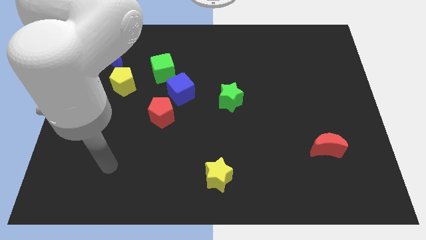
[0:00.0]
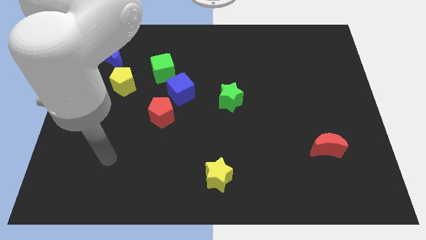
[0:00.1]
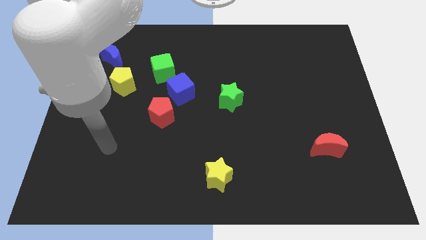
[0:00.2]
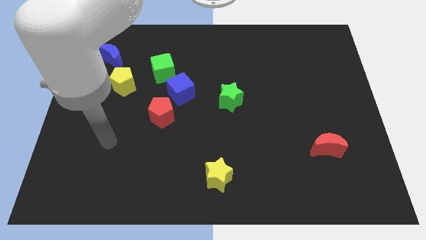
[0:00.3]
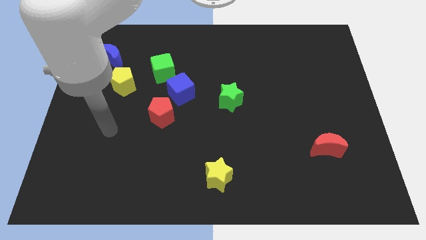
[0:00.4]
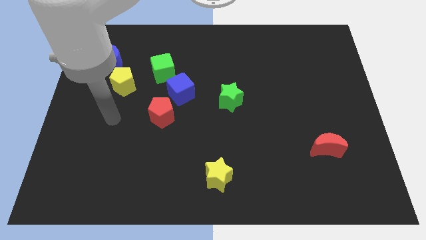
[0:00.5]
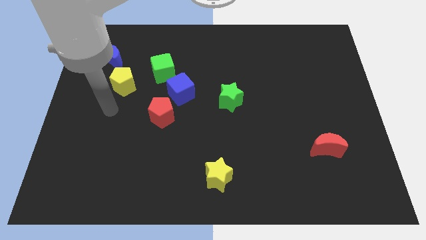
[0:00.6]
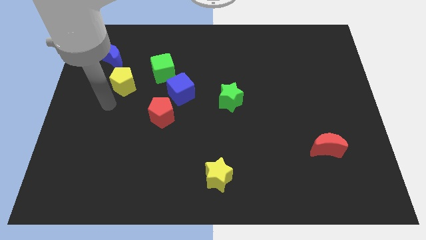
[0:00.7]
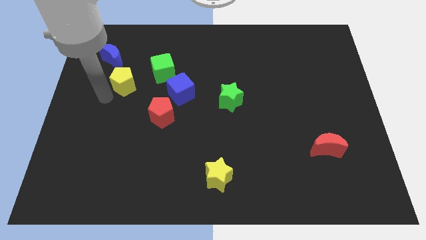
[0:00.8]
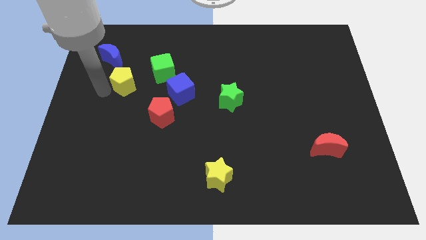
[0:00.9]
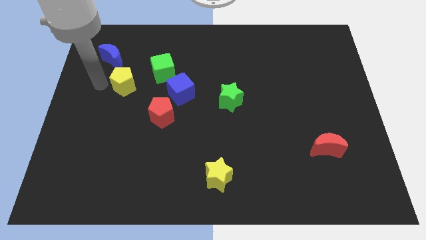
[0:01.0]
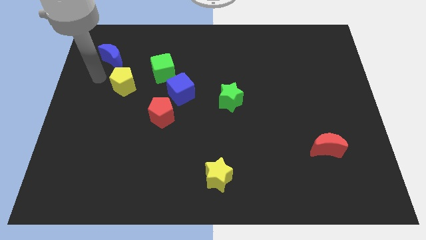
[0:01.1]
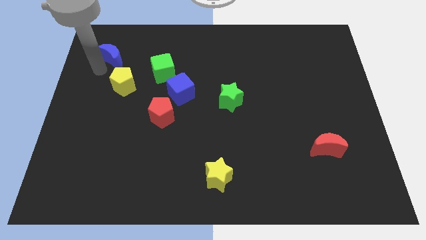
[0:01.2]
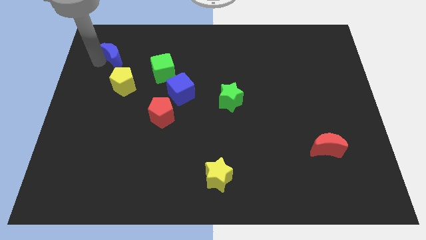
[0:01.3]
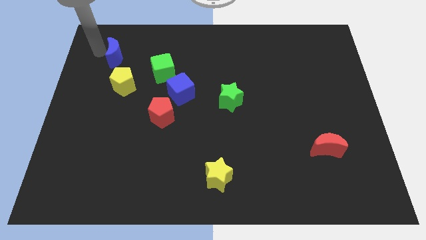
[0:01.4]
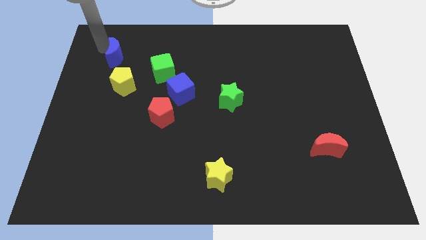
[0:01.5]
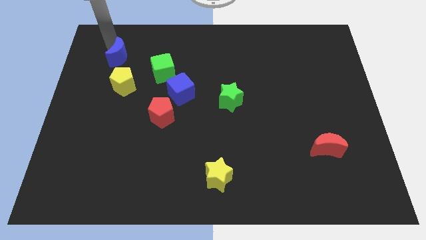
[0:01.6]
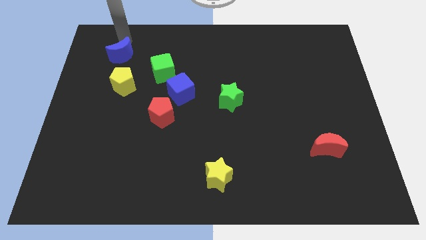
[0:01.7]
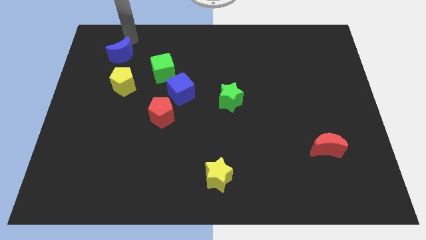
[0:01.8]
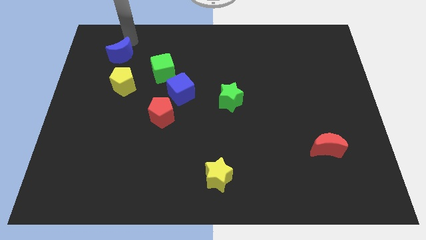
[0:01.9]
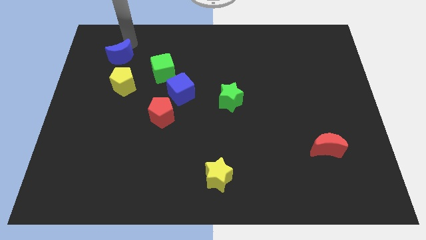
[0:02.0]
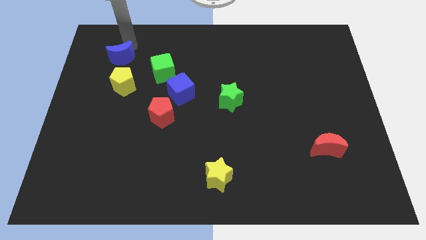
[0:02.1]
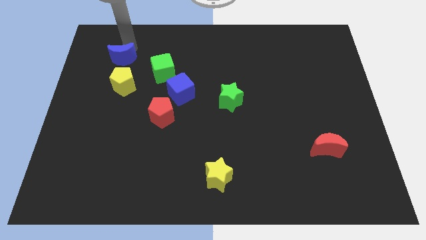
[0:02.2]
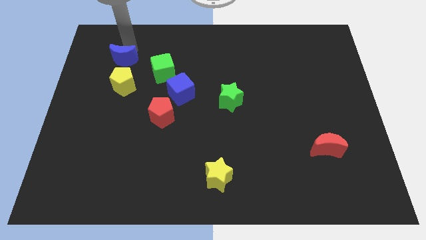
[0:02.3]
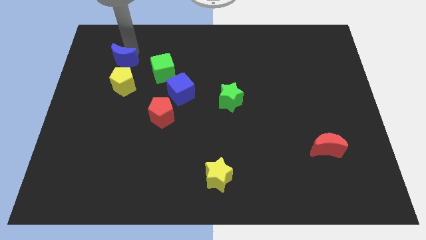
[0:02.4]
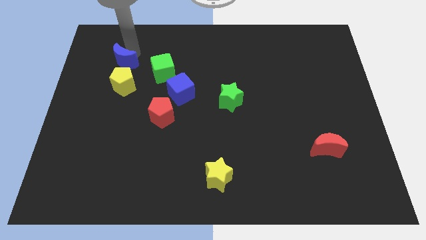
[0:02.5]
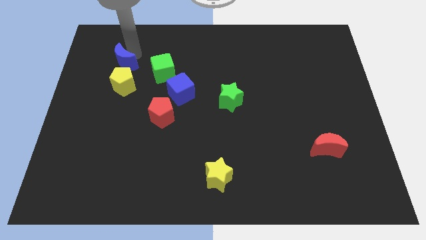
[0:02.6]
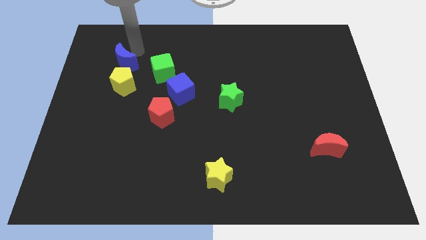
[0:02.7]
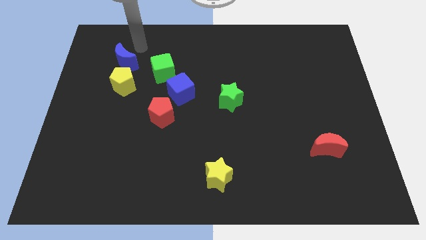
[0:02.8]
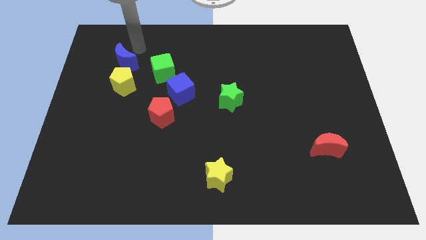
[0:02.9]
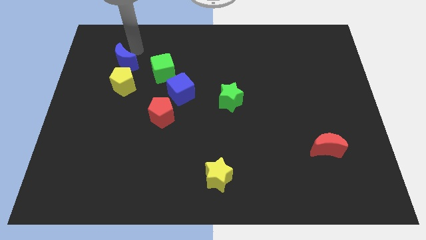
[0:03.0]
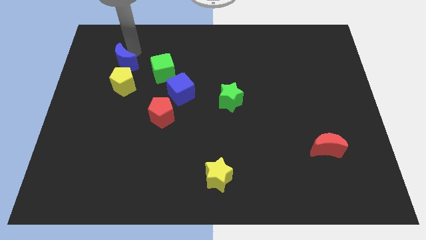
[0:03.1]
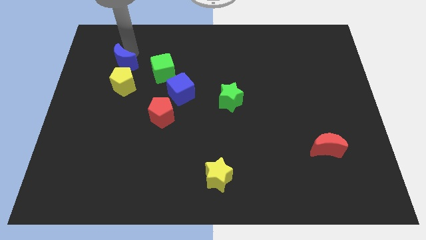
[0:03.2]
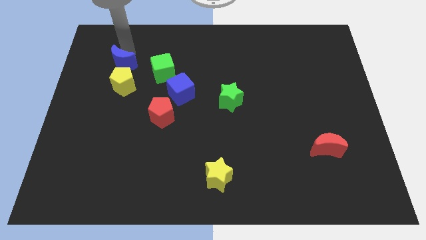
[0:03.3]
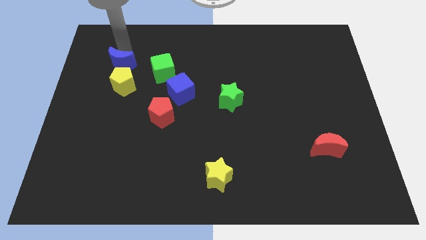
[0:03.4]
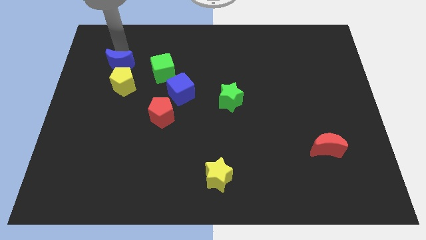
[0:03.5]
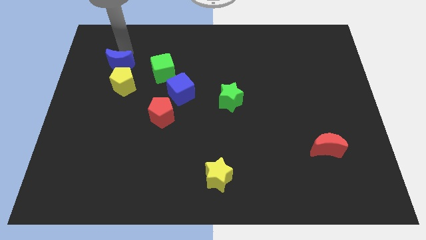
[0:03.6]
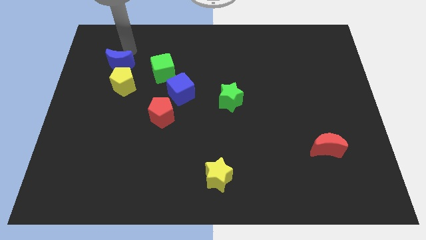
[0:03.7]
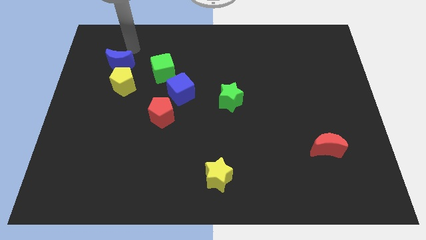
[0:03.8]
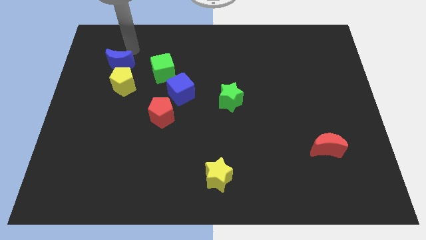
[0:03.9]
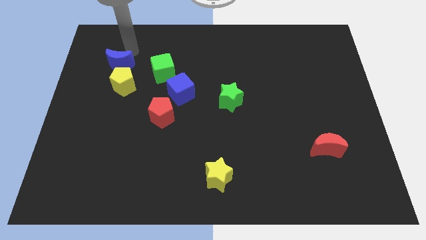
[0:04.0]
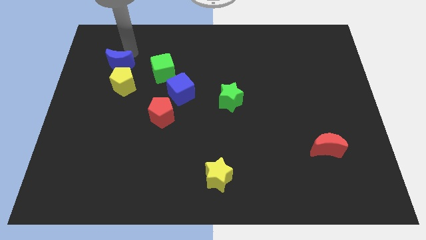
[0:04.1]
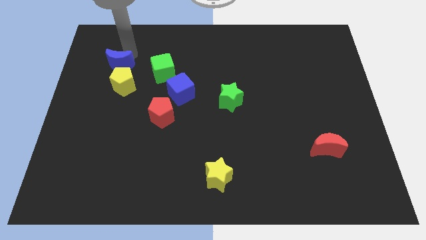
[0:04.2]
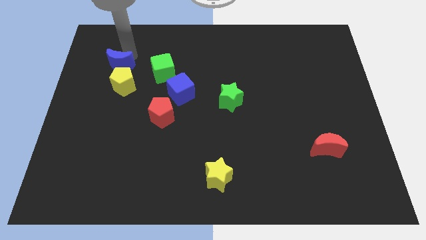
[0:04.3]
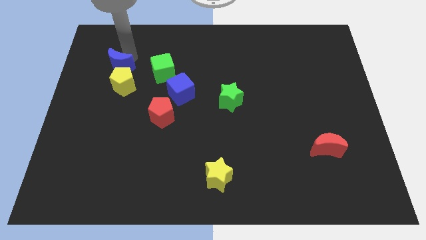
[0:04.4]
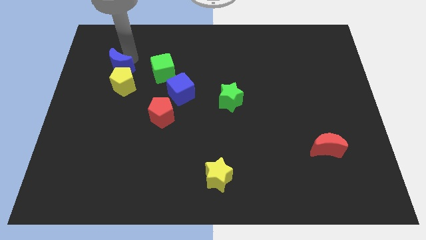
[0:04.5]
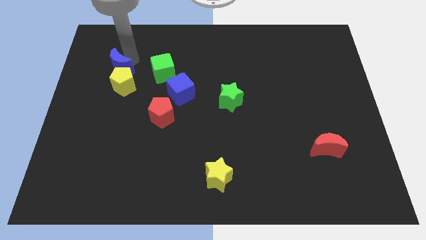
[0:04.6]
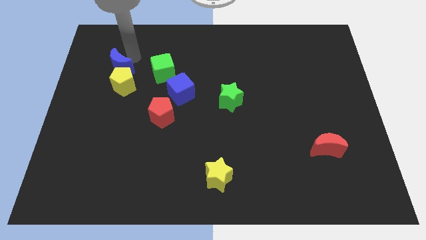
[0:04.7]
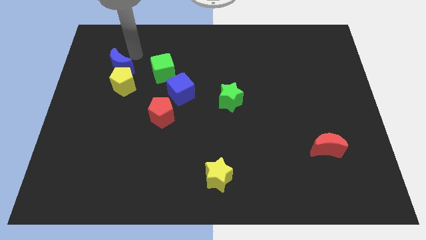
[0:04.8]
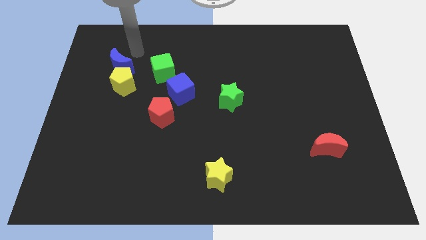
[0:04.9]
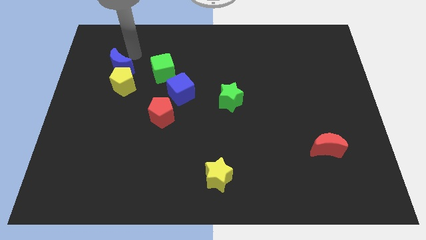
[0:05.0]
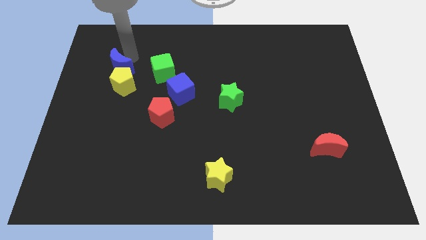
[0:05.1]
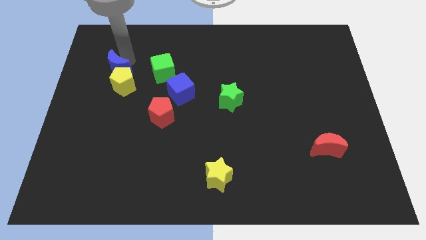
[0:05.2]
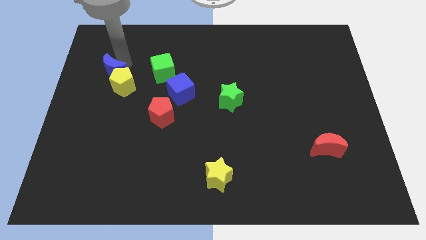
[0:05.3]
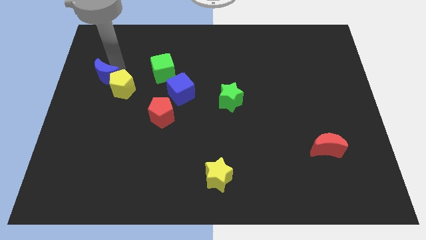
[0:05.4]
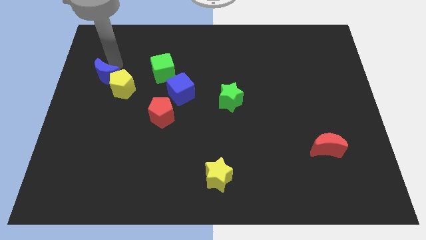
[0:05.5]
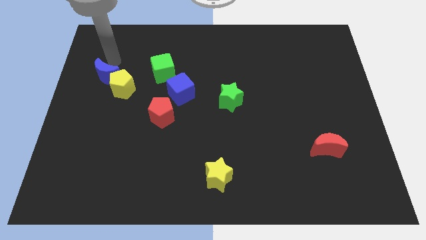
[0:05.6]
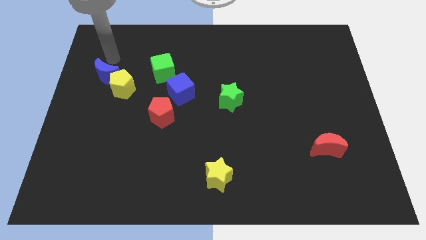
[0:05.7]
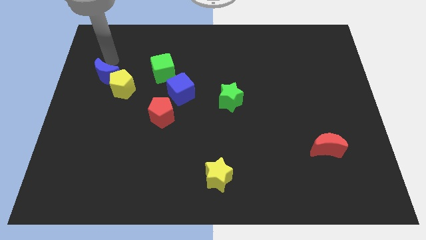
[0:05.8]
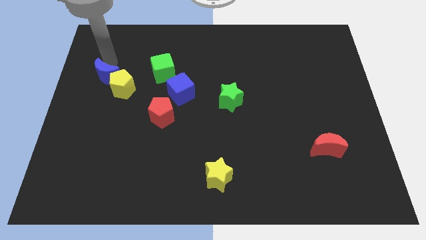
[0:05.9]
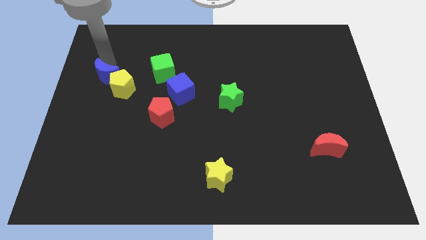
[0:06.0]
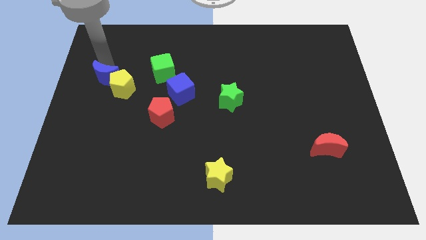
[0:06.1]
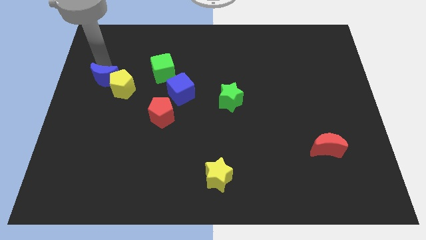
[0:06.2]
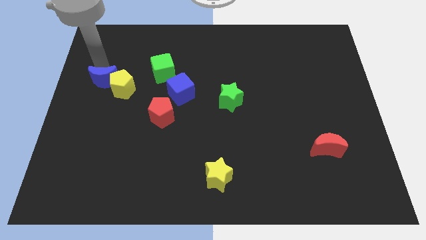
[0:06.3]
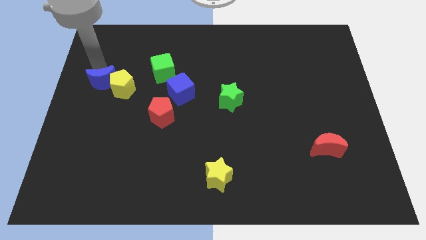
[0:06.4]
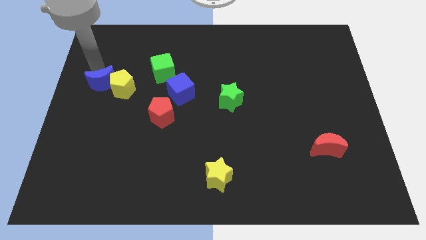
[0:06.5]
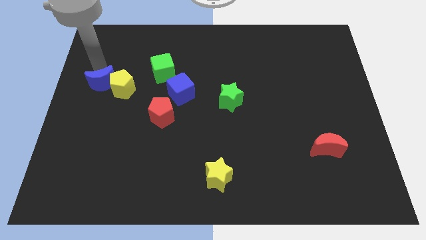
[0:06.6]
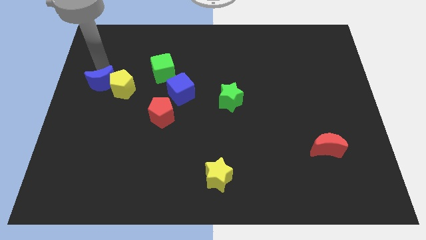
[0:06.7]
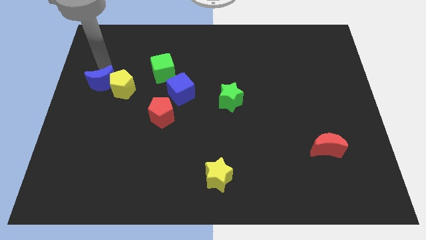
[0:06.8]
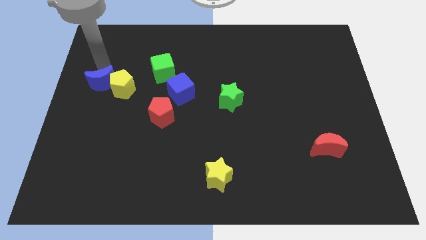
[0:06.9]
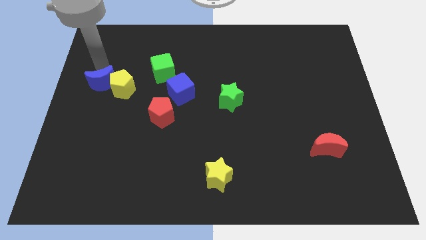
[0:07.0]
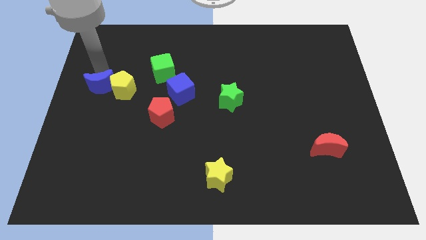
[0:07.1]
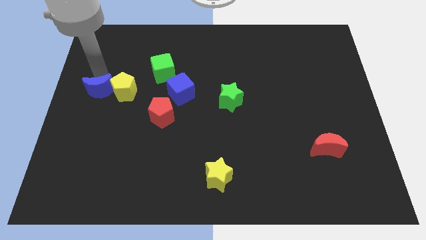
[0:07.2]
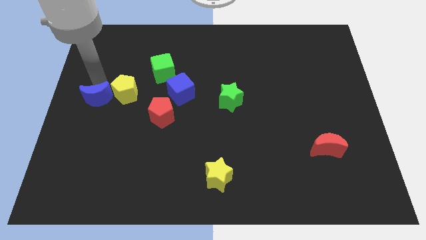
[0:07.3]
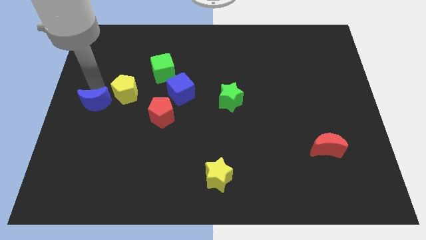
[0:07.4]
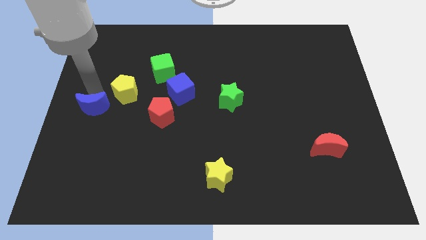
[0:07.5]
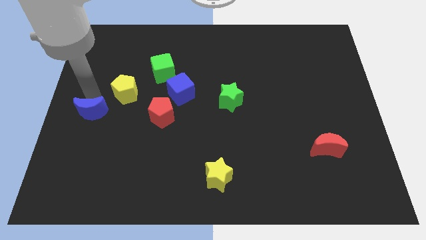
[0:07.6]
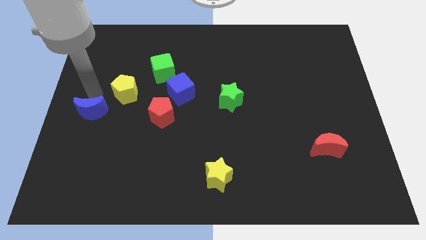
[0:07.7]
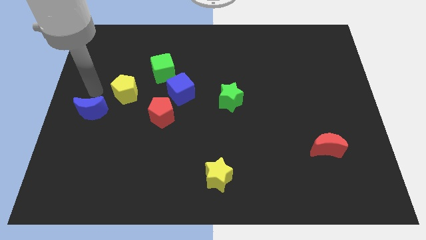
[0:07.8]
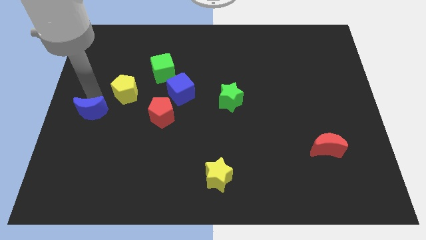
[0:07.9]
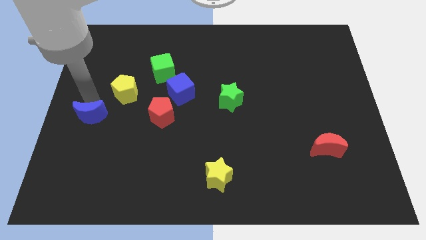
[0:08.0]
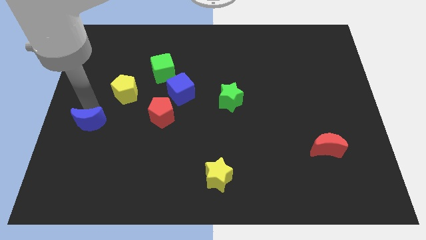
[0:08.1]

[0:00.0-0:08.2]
slide the blue moon downwards

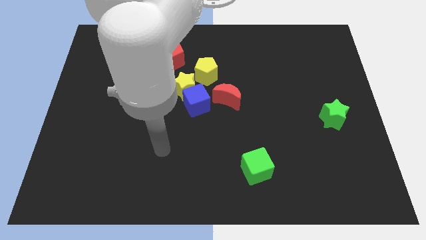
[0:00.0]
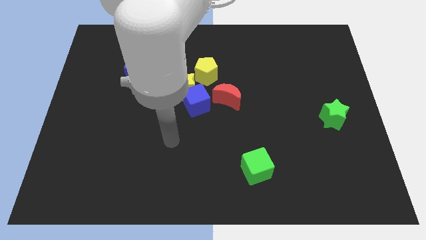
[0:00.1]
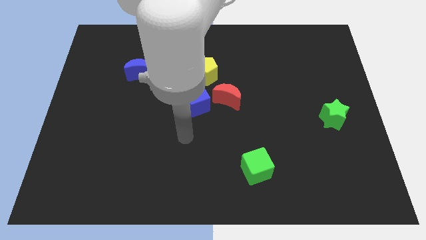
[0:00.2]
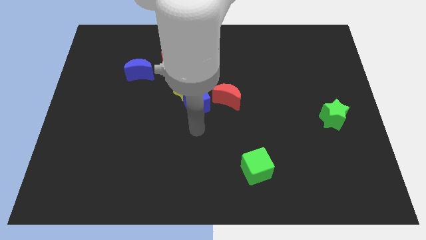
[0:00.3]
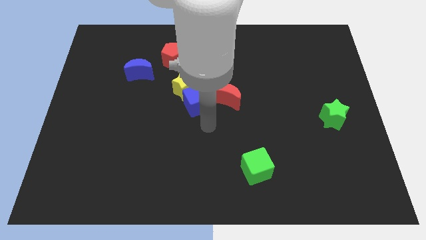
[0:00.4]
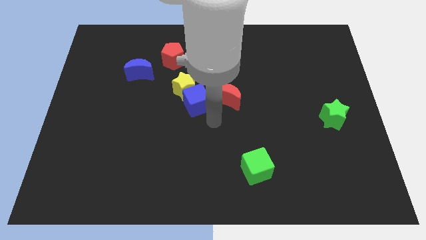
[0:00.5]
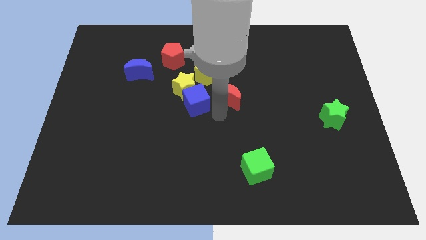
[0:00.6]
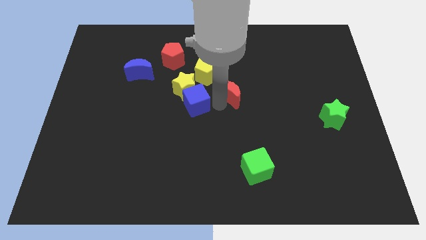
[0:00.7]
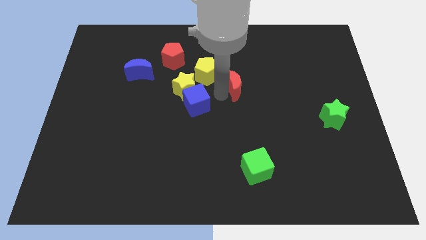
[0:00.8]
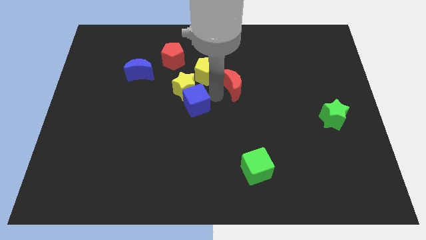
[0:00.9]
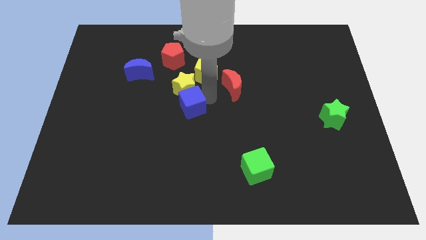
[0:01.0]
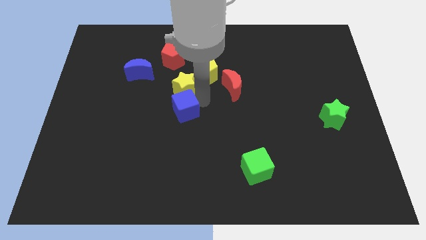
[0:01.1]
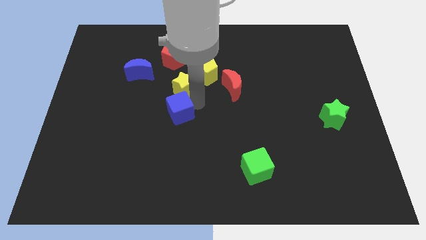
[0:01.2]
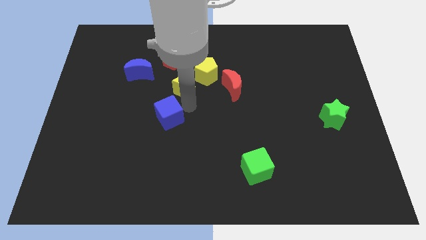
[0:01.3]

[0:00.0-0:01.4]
move the blue cube a little bit downwards and then left
